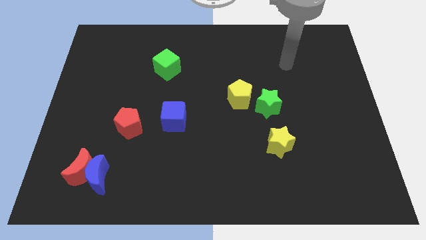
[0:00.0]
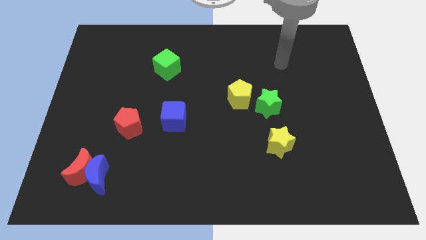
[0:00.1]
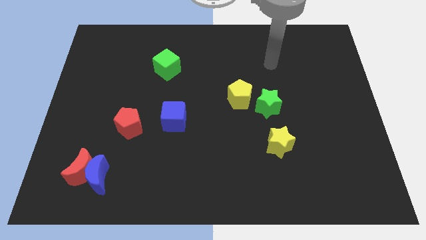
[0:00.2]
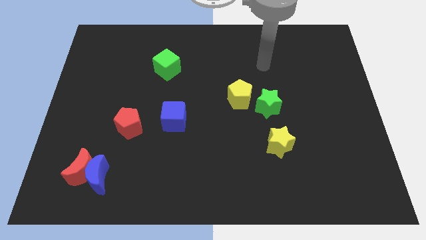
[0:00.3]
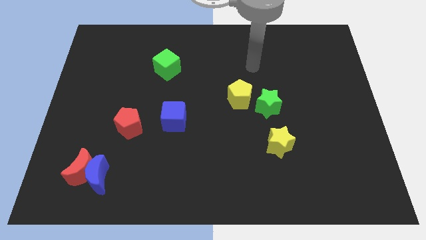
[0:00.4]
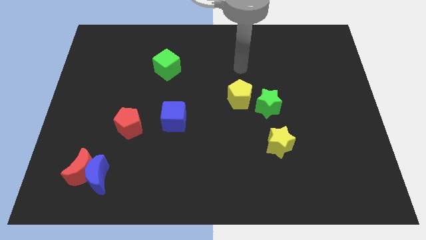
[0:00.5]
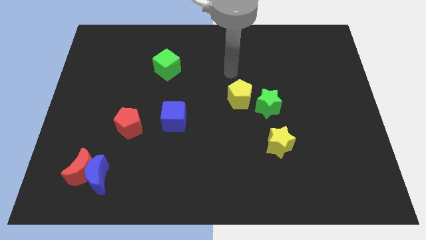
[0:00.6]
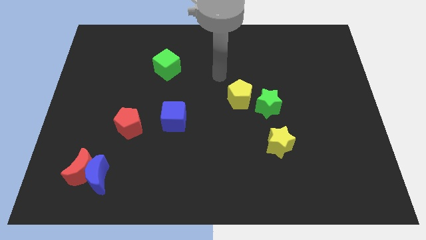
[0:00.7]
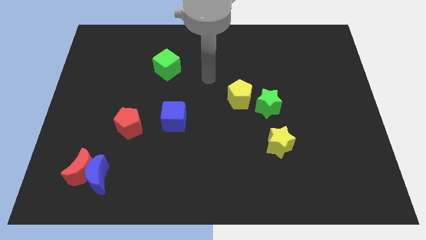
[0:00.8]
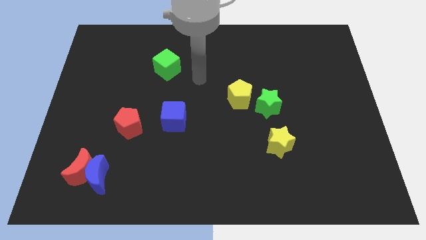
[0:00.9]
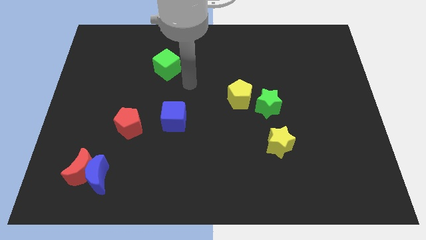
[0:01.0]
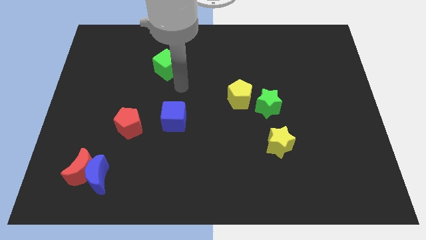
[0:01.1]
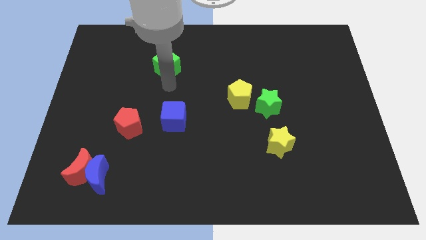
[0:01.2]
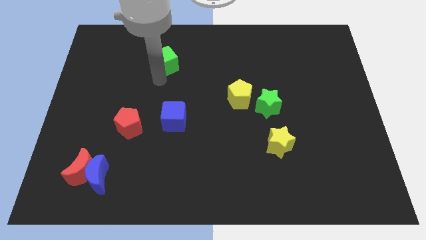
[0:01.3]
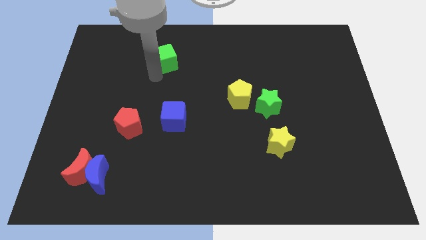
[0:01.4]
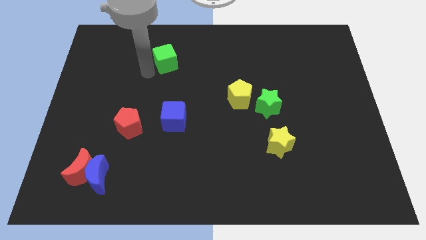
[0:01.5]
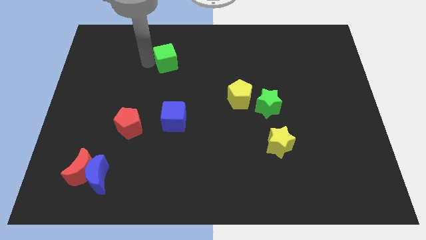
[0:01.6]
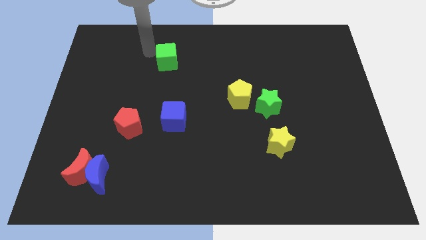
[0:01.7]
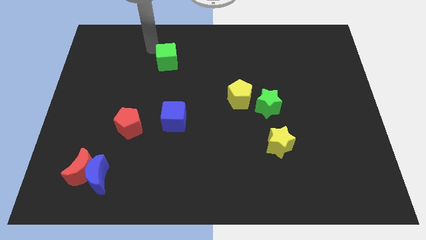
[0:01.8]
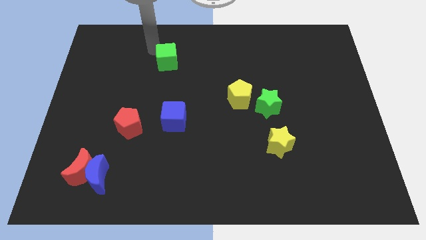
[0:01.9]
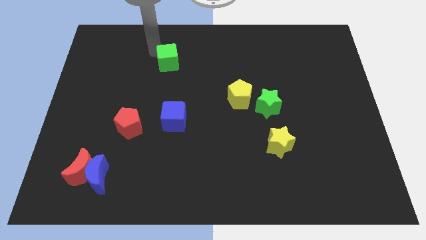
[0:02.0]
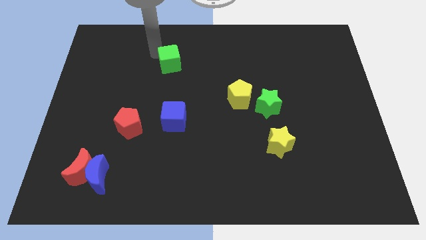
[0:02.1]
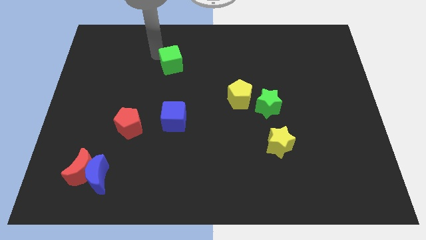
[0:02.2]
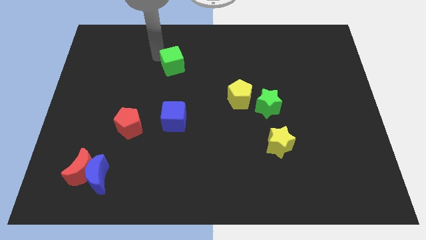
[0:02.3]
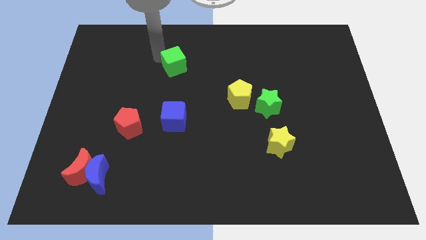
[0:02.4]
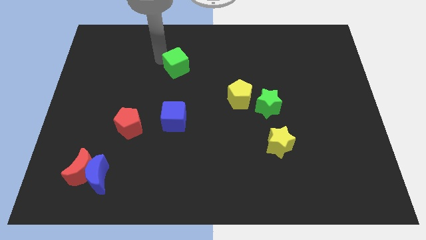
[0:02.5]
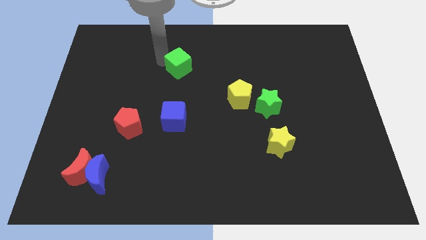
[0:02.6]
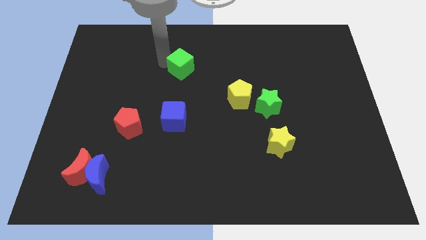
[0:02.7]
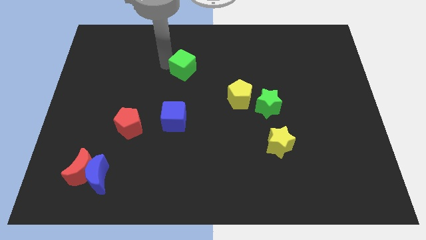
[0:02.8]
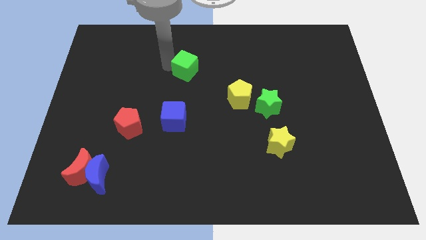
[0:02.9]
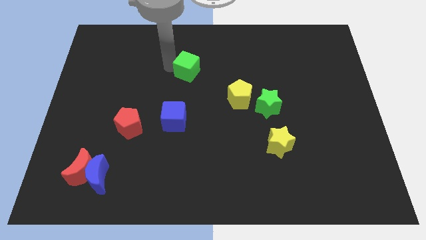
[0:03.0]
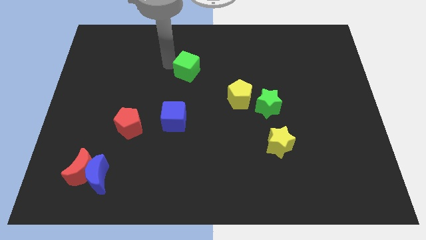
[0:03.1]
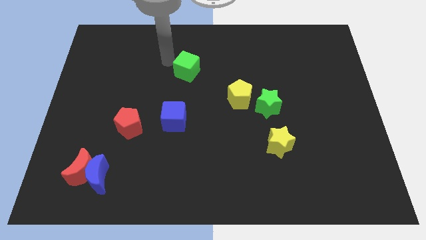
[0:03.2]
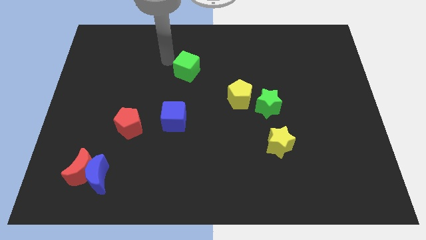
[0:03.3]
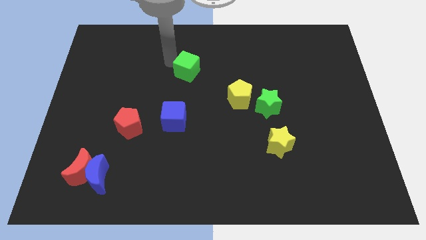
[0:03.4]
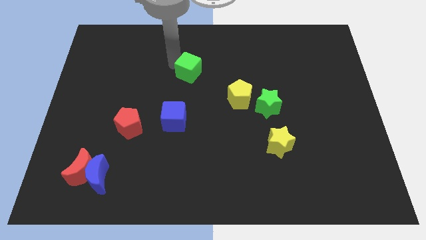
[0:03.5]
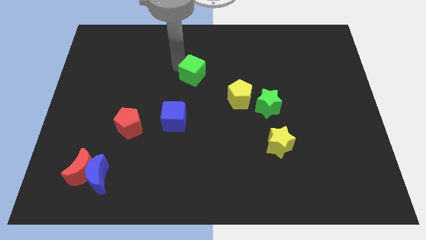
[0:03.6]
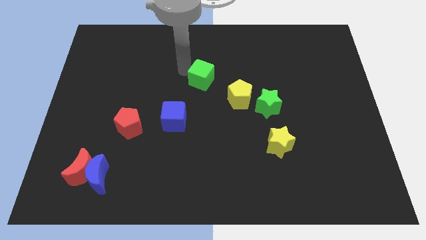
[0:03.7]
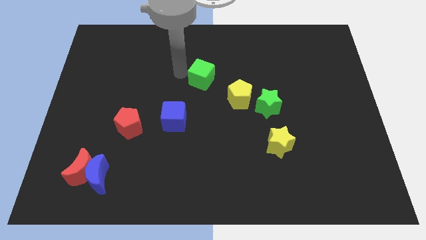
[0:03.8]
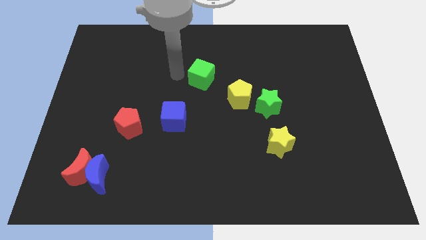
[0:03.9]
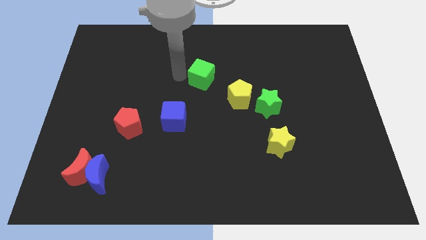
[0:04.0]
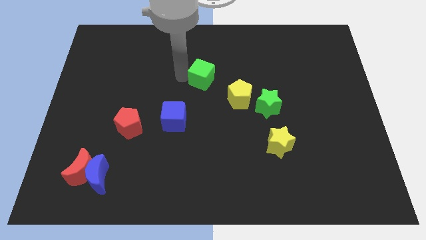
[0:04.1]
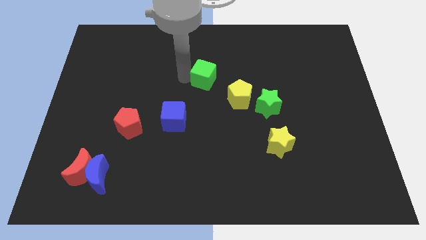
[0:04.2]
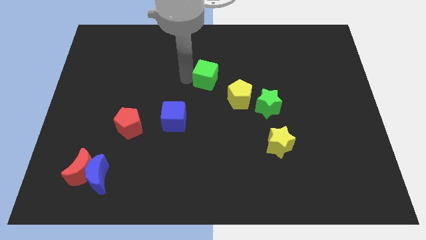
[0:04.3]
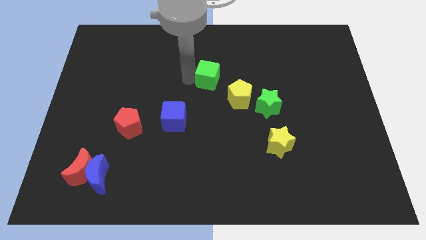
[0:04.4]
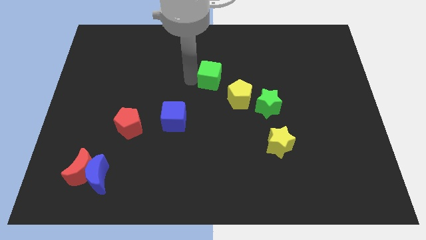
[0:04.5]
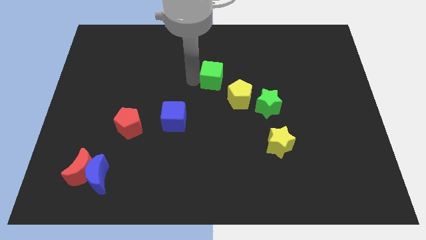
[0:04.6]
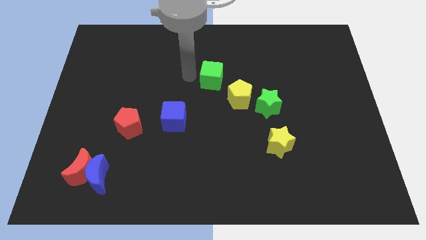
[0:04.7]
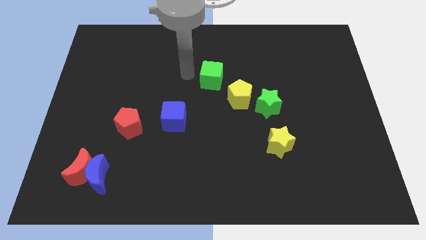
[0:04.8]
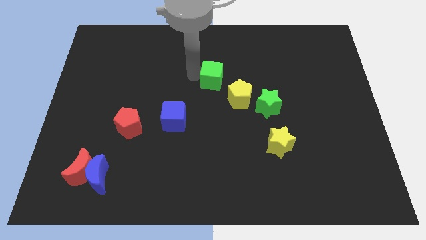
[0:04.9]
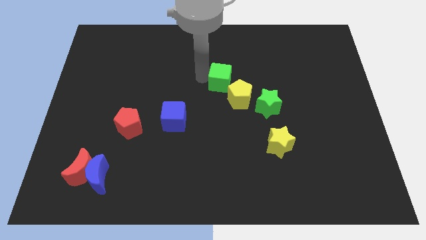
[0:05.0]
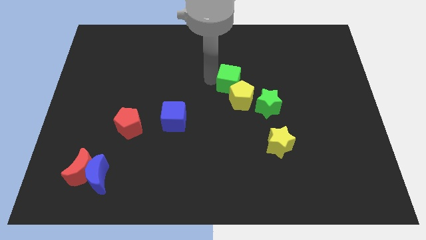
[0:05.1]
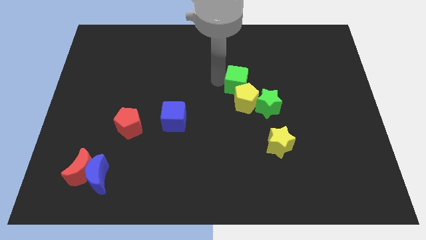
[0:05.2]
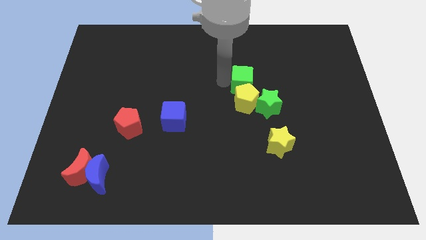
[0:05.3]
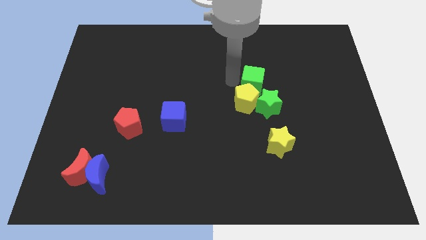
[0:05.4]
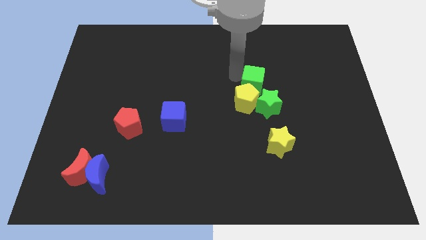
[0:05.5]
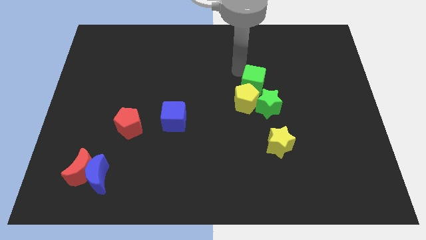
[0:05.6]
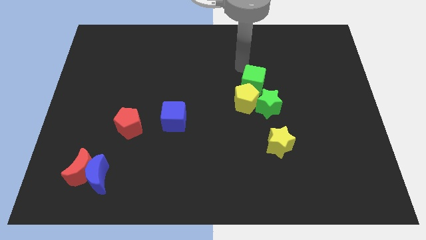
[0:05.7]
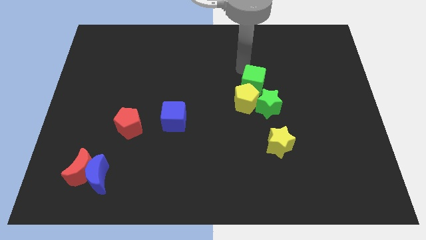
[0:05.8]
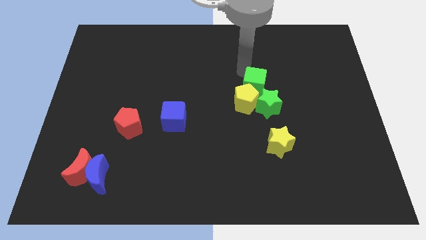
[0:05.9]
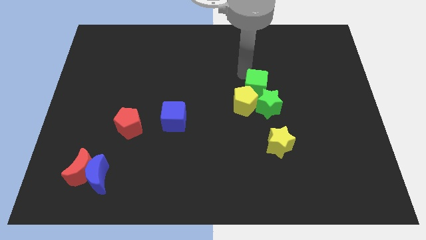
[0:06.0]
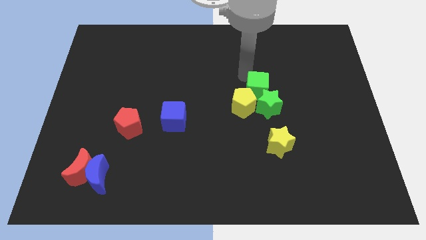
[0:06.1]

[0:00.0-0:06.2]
push the green cube next to the green star

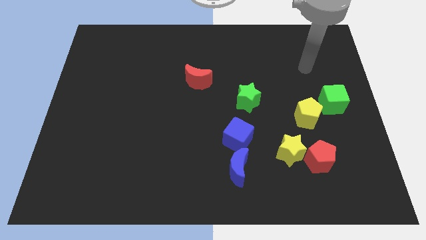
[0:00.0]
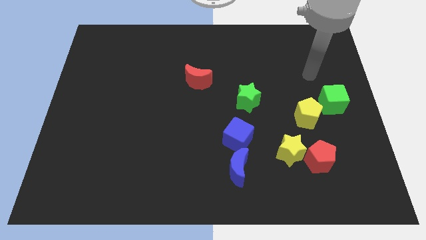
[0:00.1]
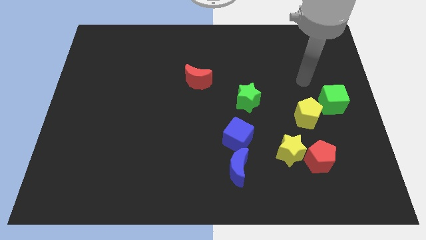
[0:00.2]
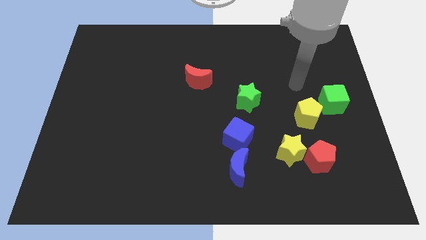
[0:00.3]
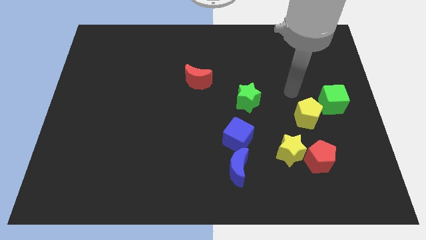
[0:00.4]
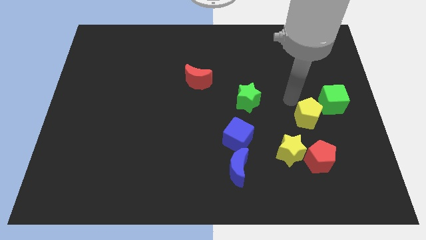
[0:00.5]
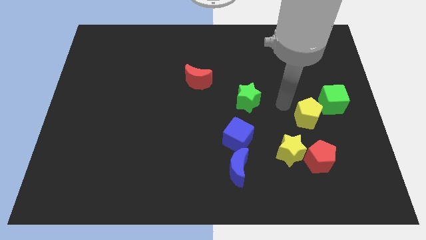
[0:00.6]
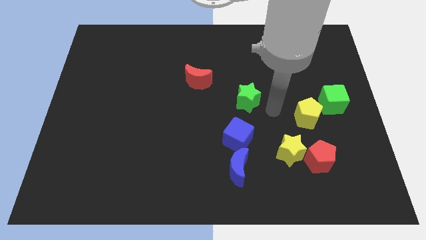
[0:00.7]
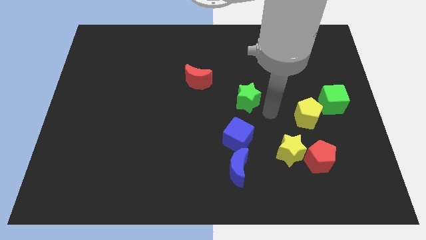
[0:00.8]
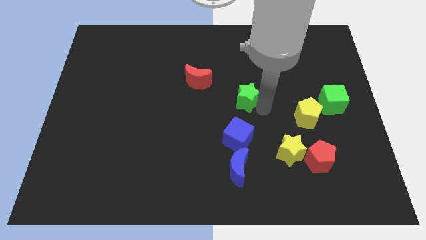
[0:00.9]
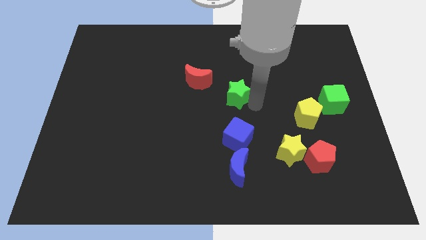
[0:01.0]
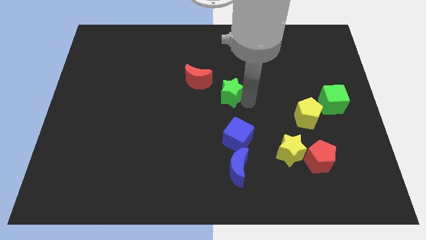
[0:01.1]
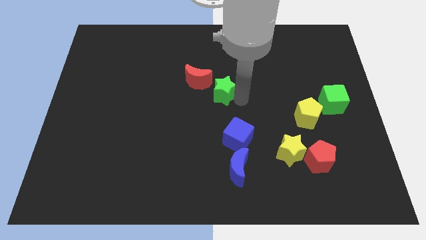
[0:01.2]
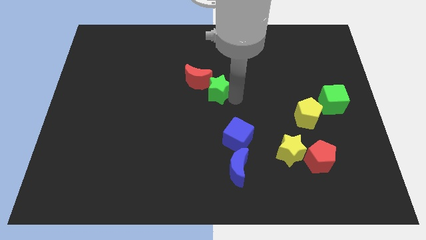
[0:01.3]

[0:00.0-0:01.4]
move the green star to the red moon
